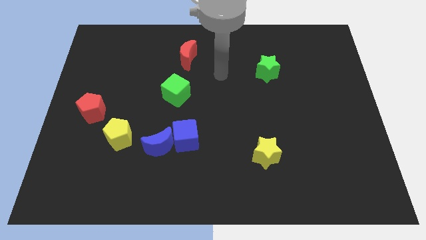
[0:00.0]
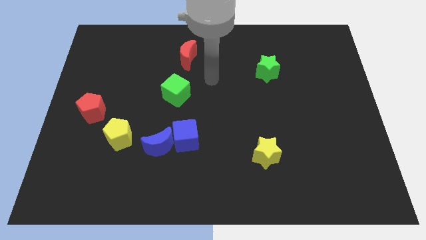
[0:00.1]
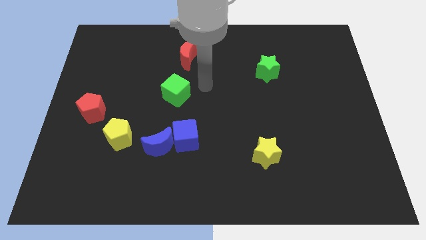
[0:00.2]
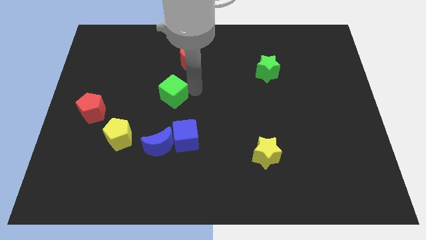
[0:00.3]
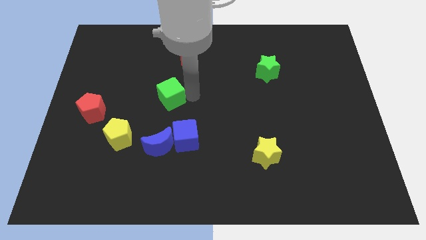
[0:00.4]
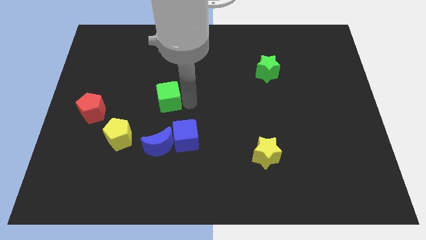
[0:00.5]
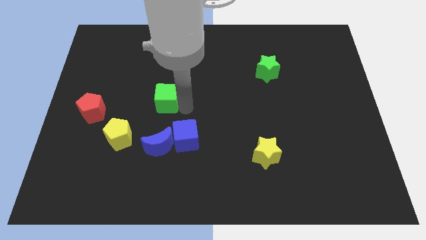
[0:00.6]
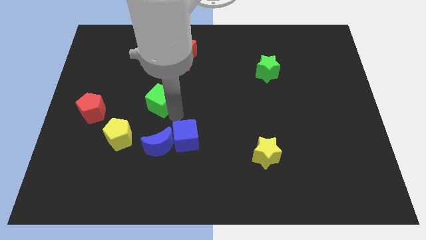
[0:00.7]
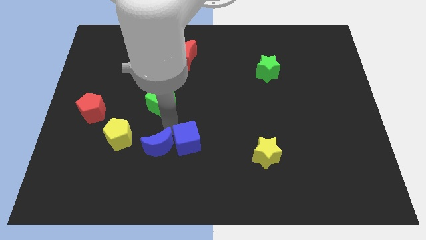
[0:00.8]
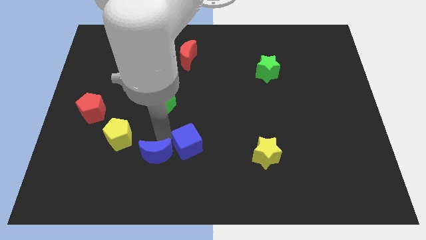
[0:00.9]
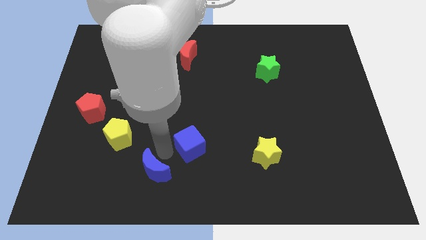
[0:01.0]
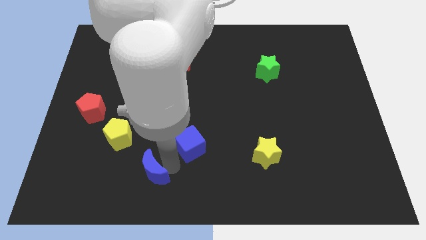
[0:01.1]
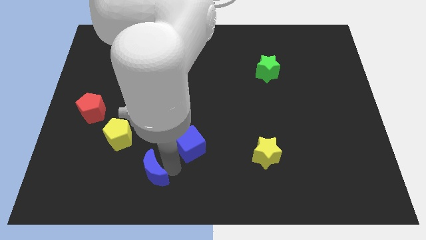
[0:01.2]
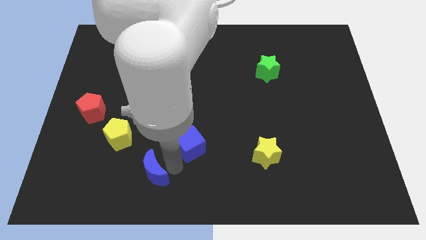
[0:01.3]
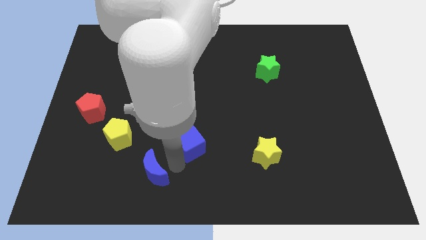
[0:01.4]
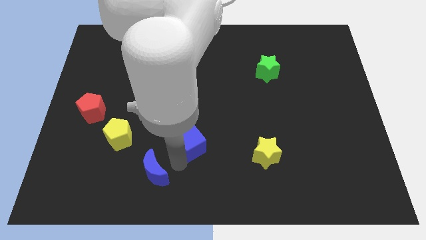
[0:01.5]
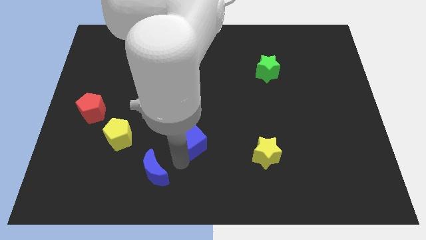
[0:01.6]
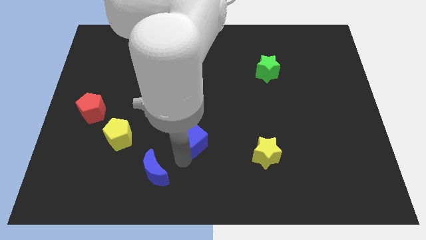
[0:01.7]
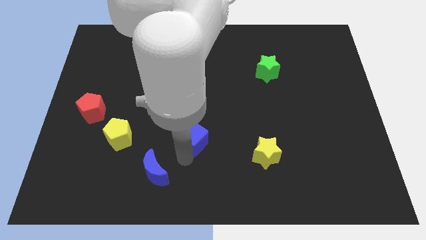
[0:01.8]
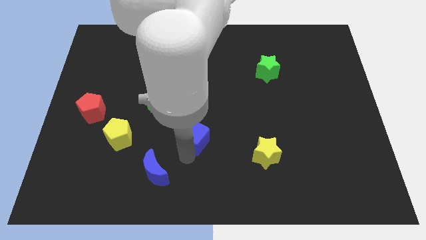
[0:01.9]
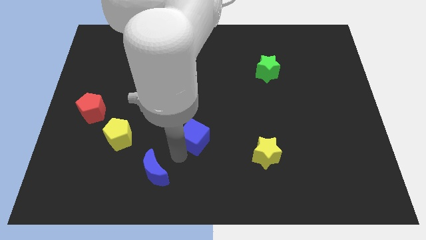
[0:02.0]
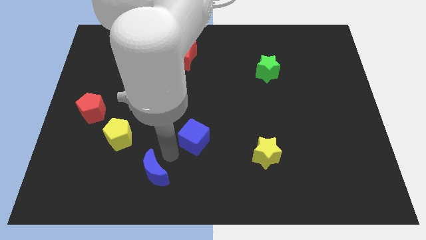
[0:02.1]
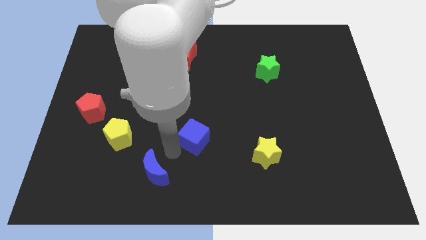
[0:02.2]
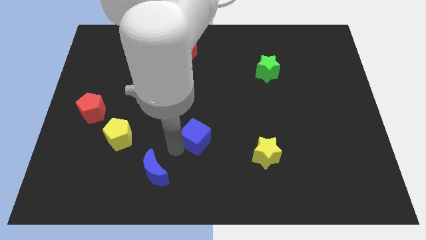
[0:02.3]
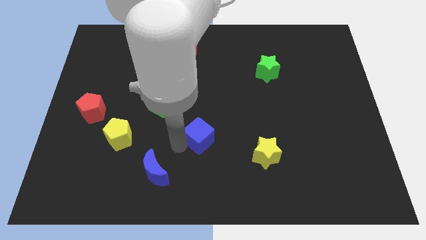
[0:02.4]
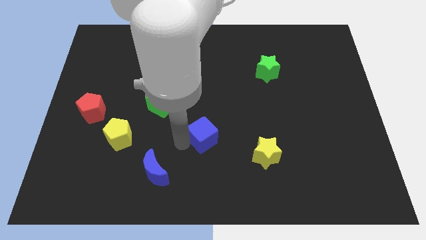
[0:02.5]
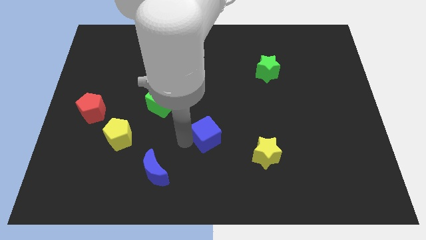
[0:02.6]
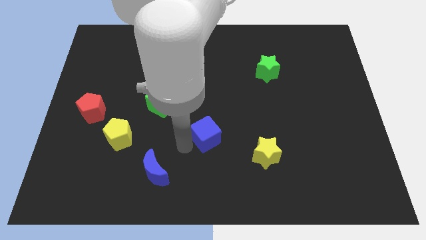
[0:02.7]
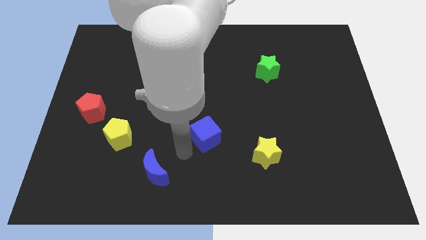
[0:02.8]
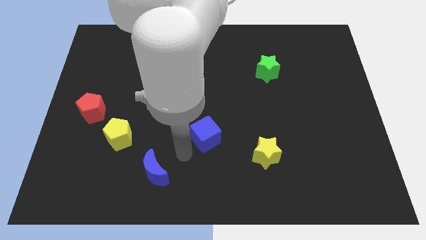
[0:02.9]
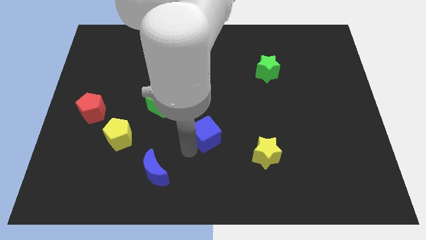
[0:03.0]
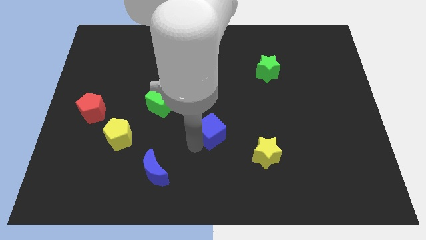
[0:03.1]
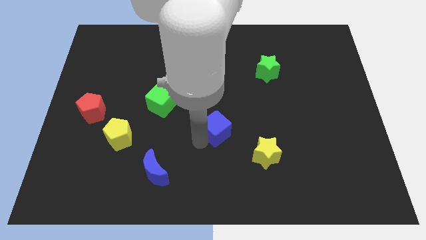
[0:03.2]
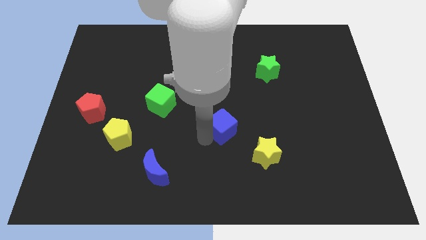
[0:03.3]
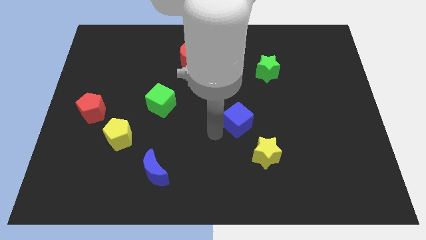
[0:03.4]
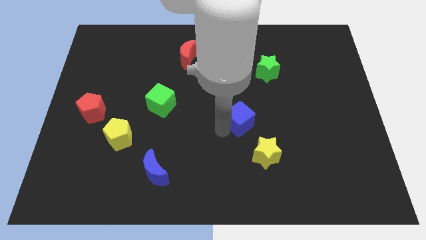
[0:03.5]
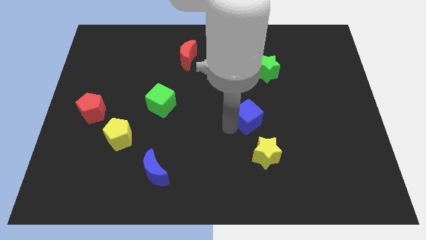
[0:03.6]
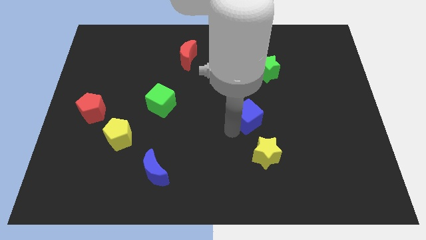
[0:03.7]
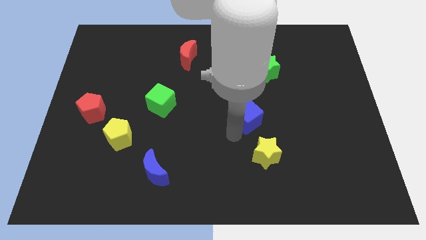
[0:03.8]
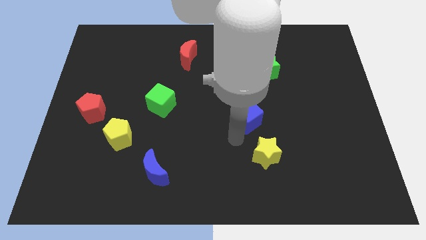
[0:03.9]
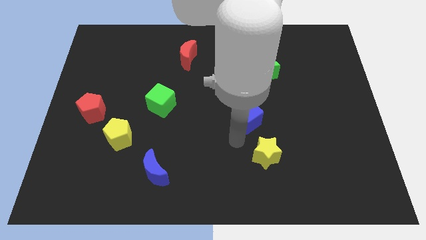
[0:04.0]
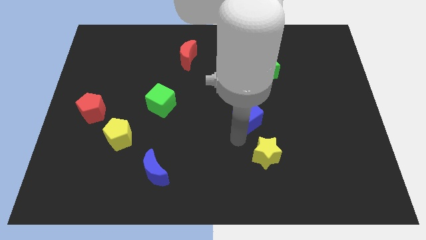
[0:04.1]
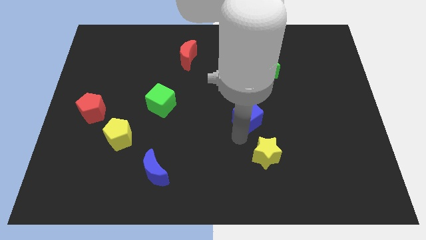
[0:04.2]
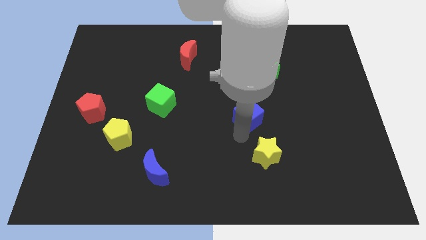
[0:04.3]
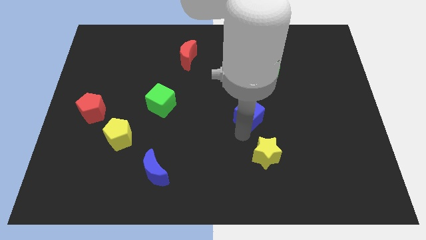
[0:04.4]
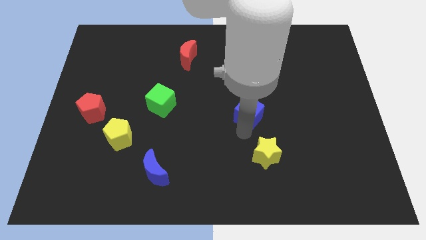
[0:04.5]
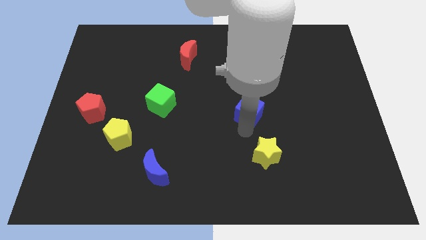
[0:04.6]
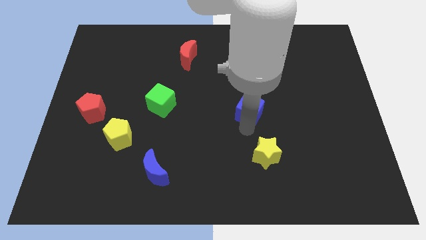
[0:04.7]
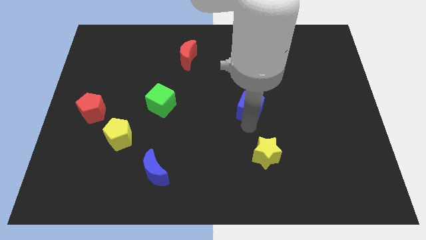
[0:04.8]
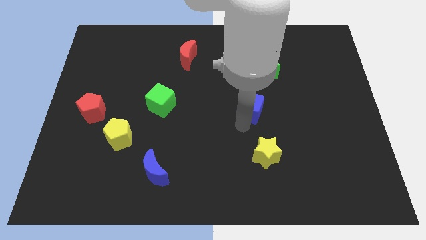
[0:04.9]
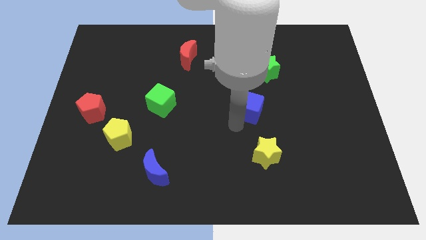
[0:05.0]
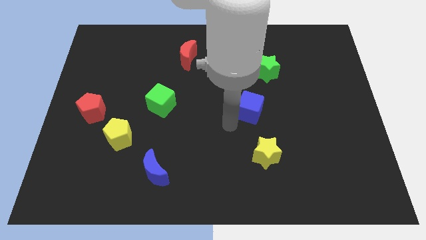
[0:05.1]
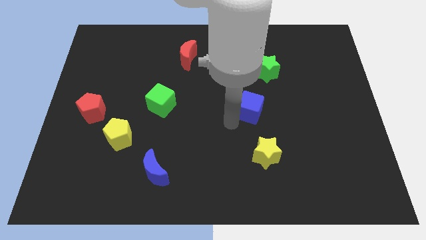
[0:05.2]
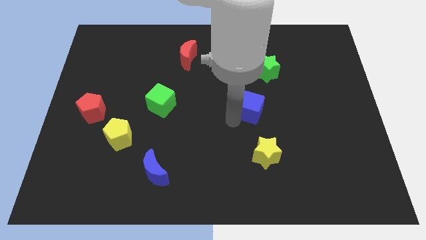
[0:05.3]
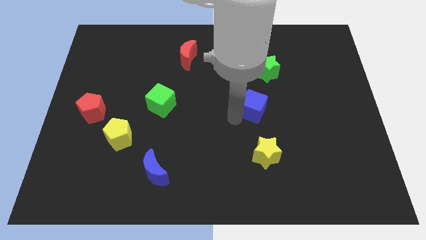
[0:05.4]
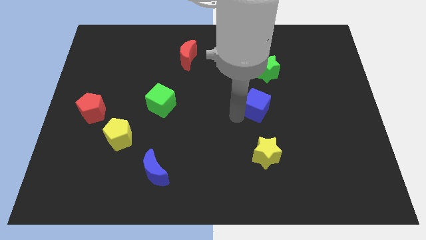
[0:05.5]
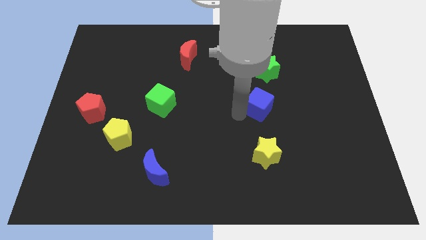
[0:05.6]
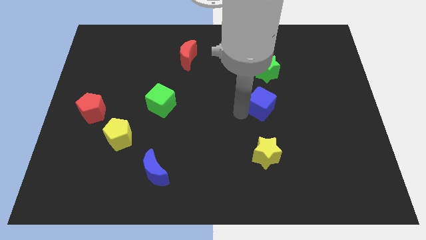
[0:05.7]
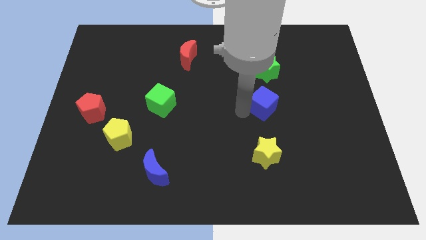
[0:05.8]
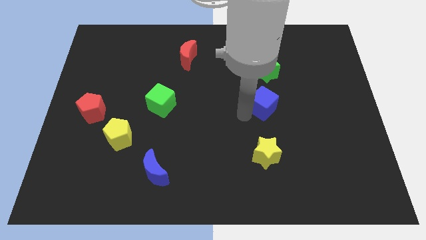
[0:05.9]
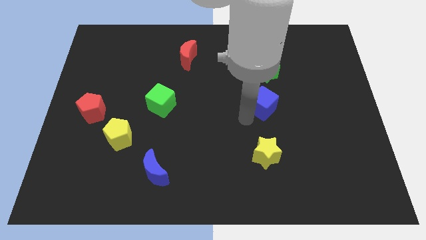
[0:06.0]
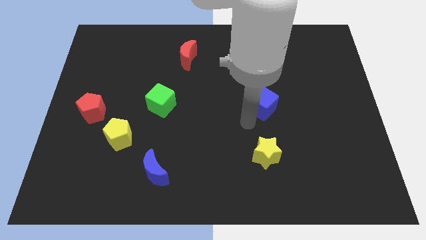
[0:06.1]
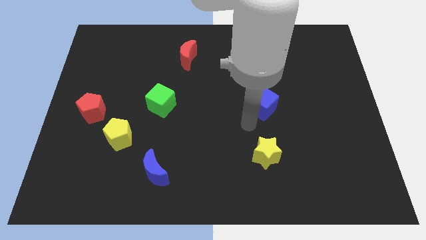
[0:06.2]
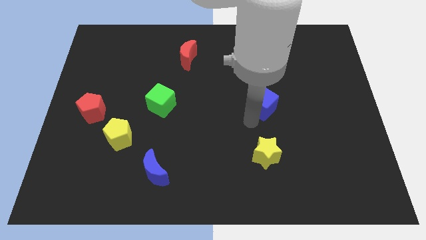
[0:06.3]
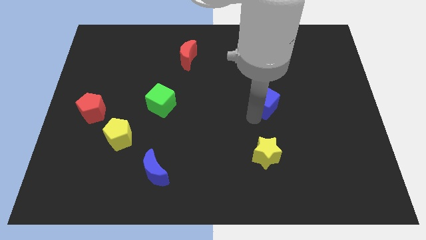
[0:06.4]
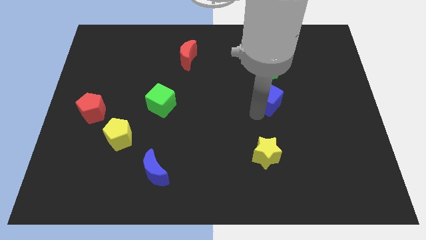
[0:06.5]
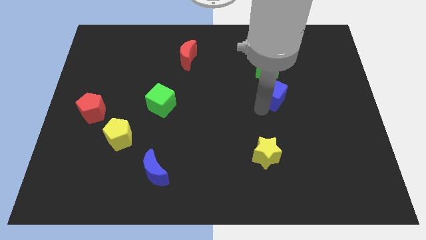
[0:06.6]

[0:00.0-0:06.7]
slide the blue cube diagonally upwards and right

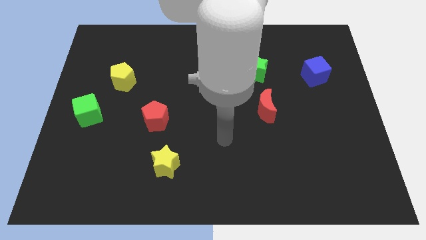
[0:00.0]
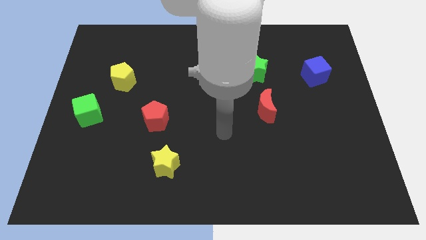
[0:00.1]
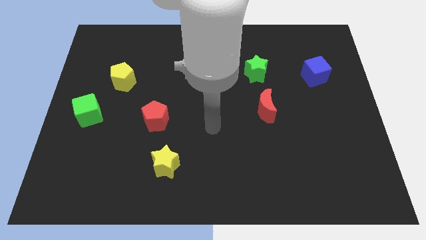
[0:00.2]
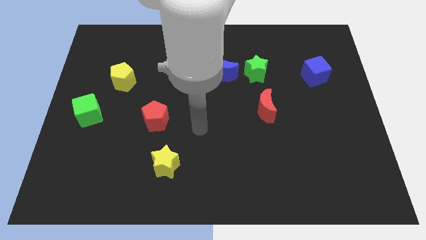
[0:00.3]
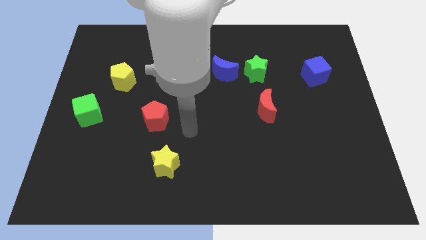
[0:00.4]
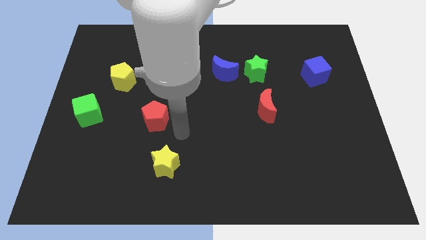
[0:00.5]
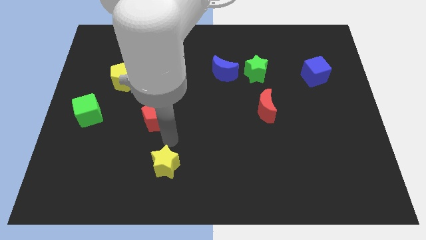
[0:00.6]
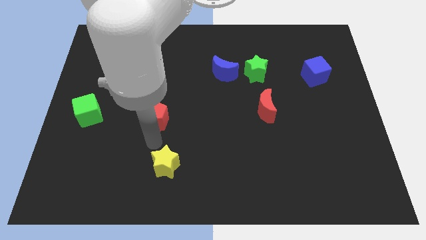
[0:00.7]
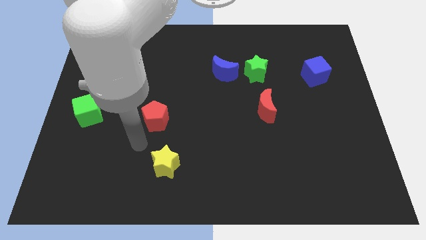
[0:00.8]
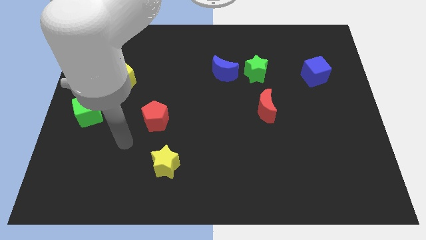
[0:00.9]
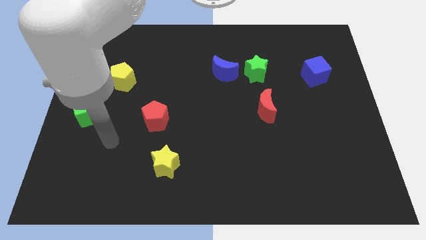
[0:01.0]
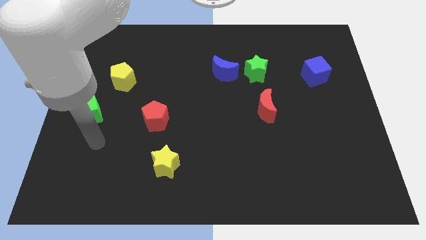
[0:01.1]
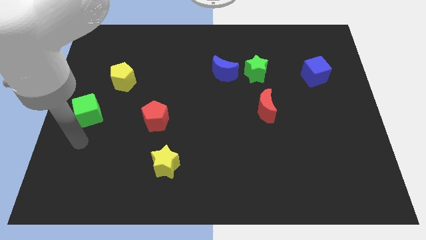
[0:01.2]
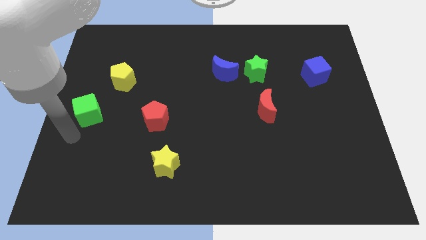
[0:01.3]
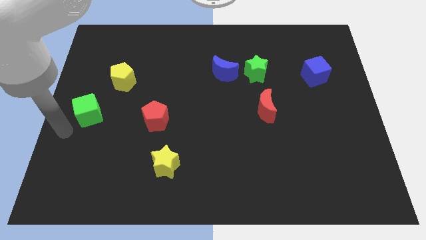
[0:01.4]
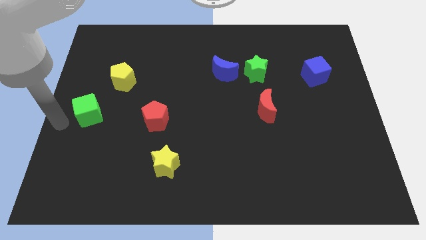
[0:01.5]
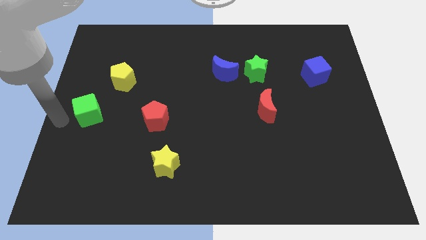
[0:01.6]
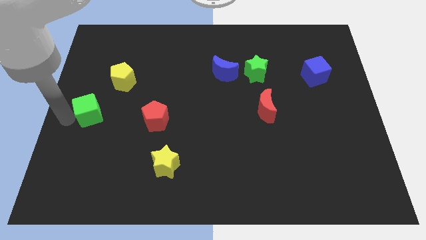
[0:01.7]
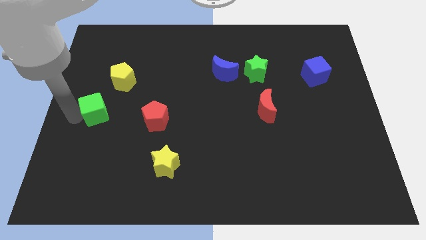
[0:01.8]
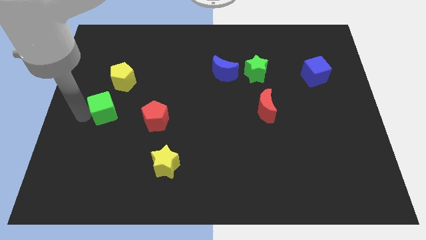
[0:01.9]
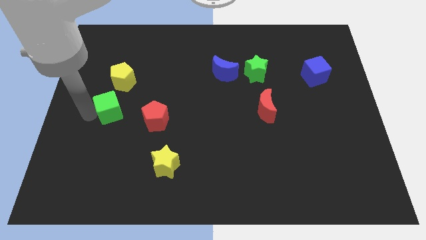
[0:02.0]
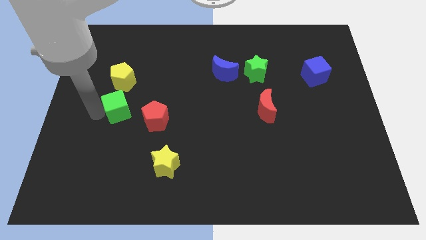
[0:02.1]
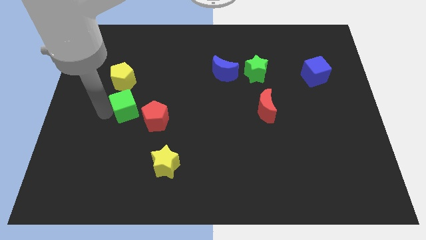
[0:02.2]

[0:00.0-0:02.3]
slide the green cube right a bit
